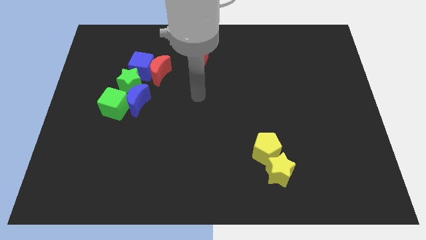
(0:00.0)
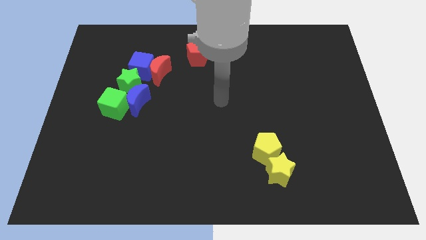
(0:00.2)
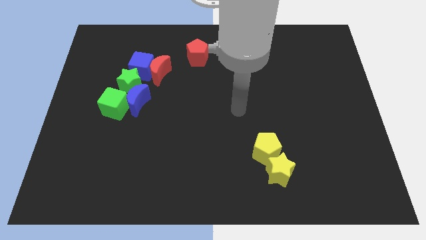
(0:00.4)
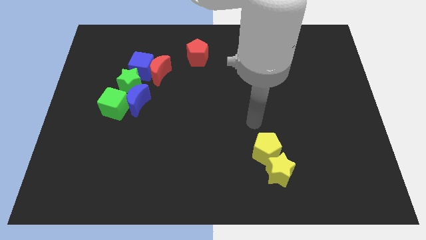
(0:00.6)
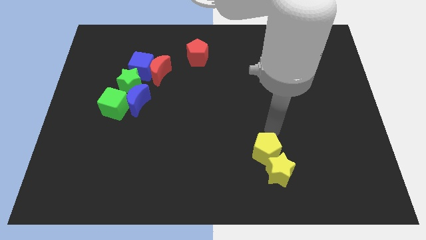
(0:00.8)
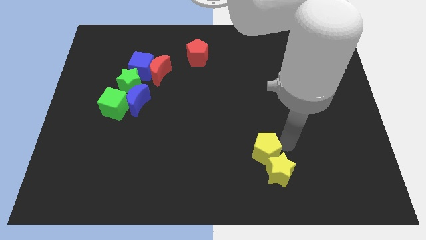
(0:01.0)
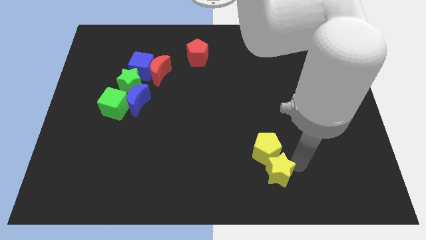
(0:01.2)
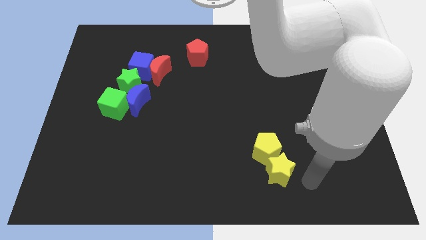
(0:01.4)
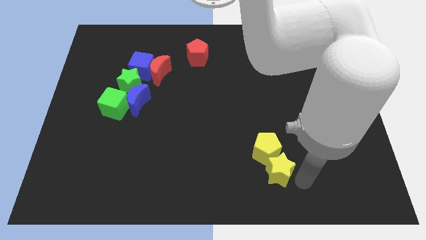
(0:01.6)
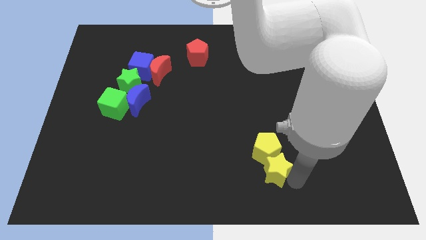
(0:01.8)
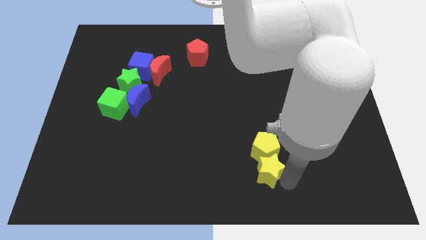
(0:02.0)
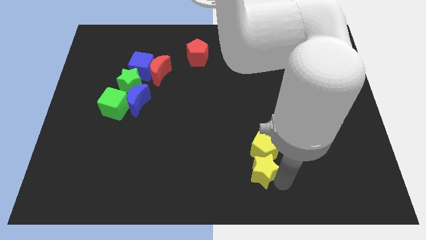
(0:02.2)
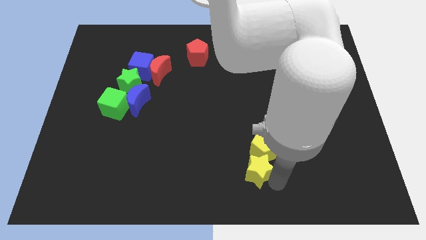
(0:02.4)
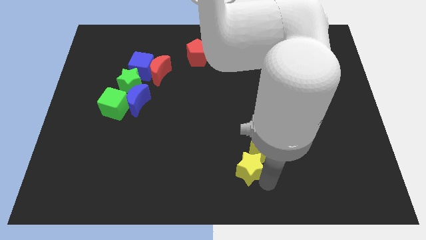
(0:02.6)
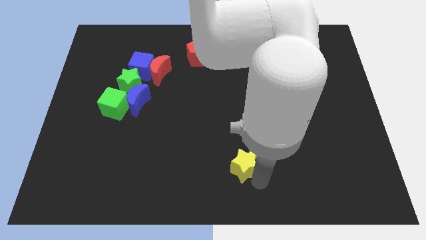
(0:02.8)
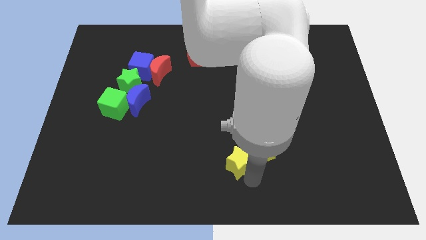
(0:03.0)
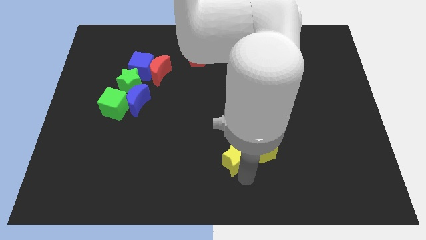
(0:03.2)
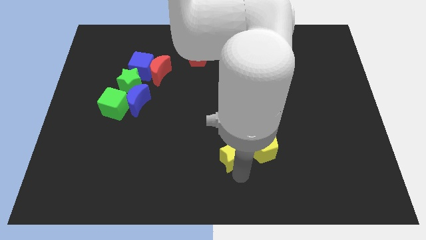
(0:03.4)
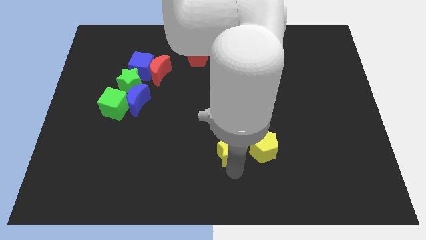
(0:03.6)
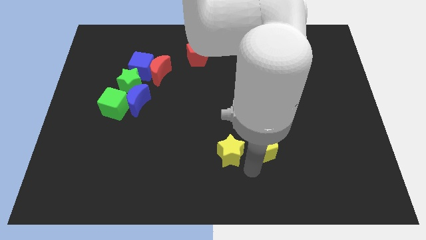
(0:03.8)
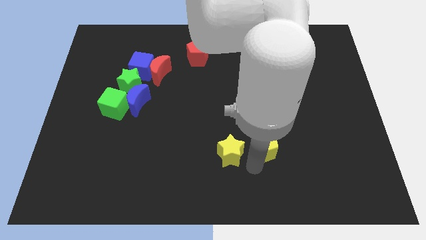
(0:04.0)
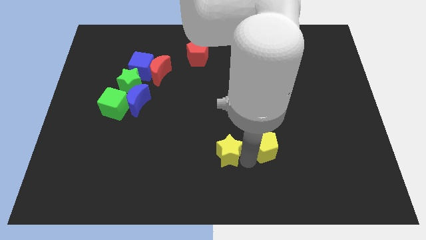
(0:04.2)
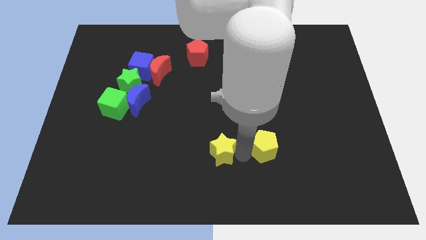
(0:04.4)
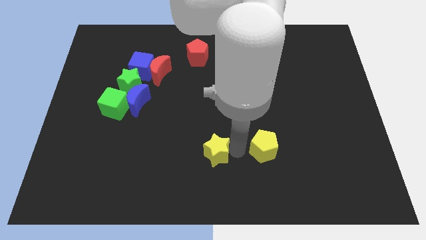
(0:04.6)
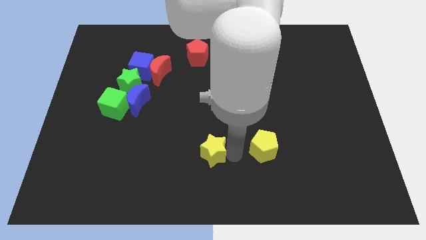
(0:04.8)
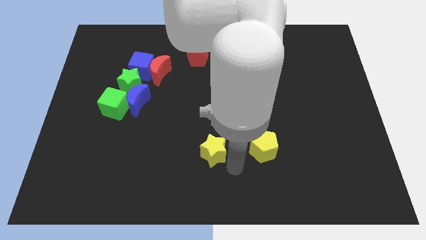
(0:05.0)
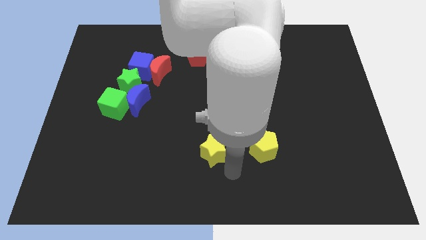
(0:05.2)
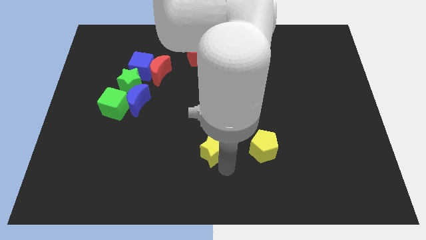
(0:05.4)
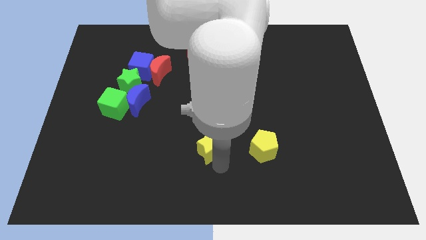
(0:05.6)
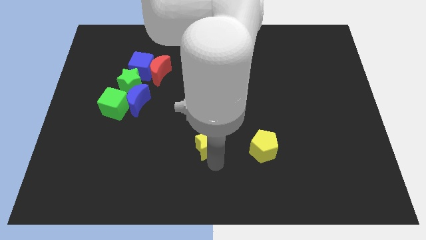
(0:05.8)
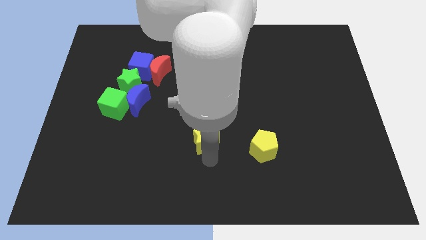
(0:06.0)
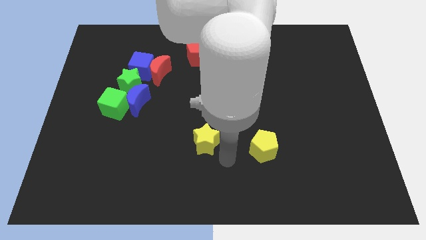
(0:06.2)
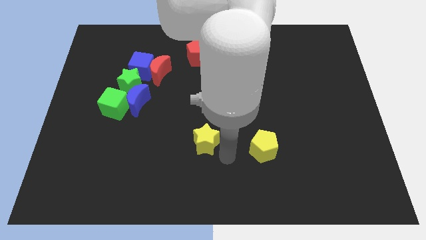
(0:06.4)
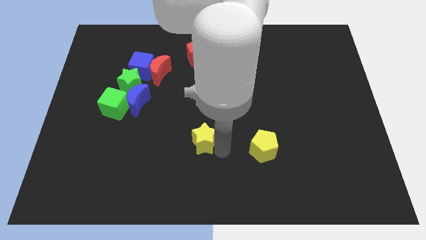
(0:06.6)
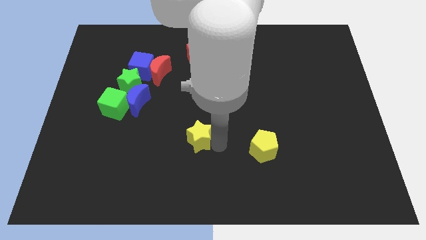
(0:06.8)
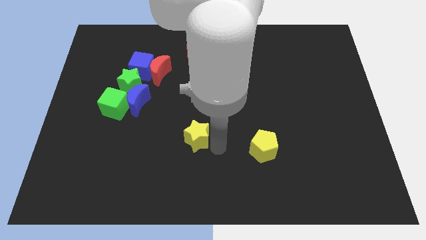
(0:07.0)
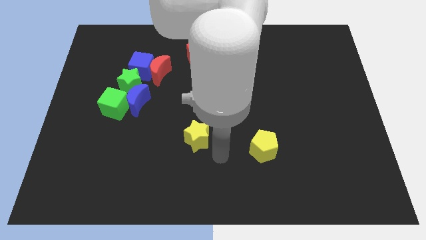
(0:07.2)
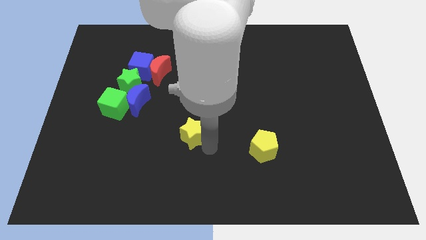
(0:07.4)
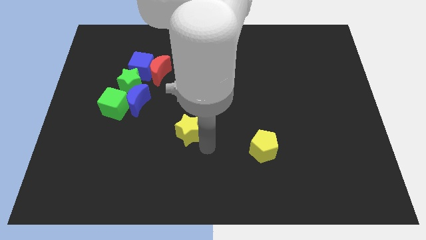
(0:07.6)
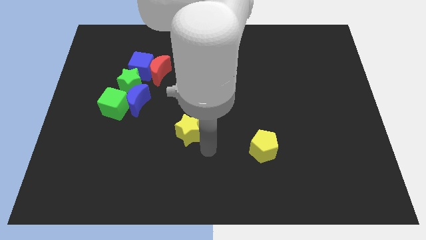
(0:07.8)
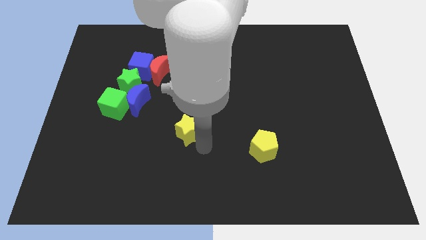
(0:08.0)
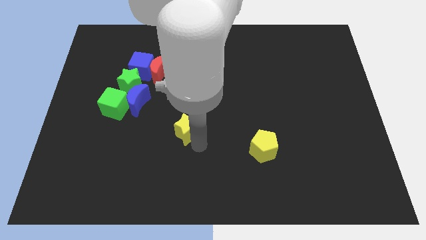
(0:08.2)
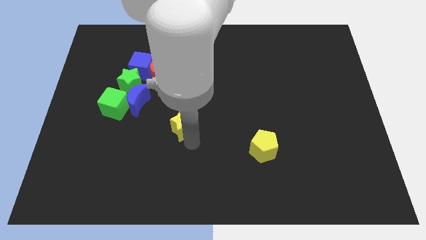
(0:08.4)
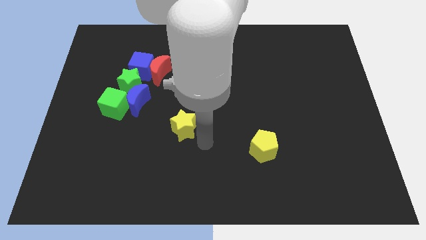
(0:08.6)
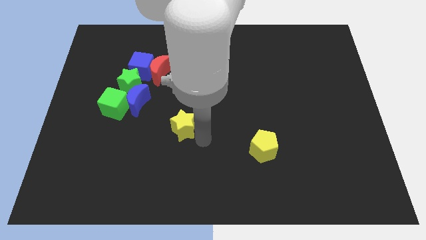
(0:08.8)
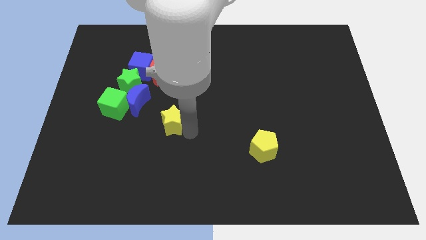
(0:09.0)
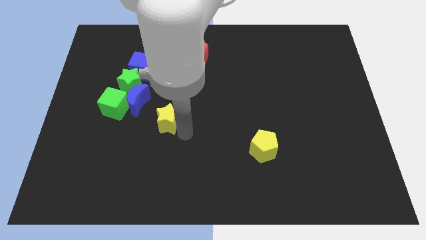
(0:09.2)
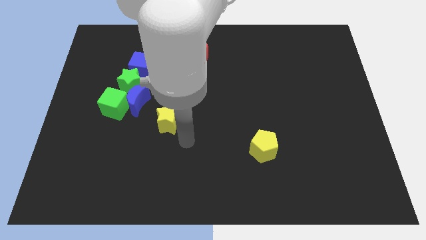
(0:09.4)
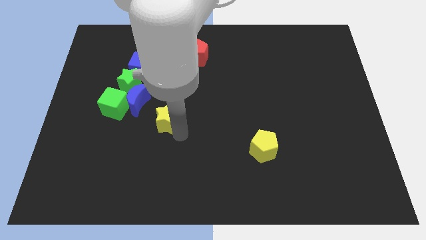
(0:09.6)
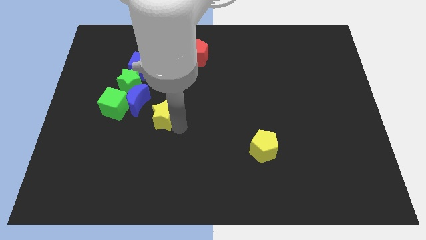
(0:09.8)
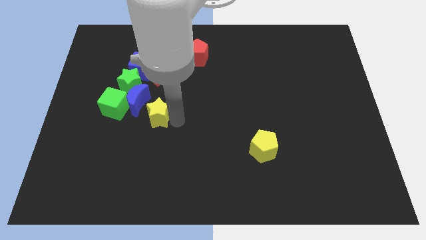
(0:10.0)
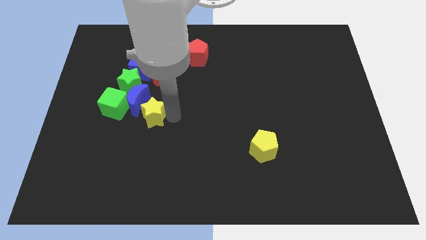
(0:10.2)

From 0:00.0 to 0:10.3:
move the yellow star towards the blue moon

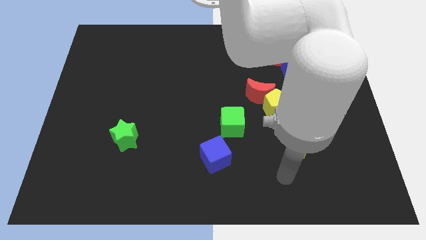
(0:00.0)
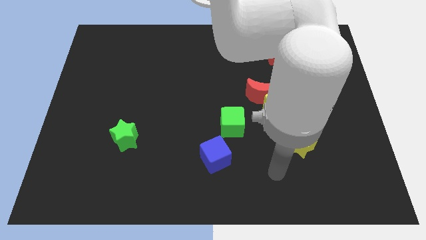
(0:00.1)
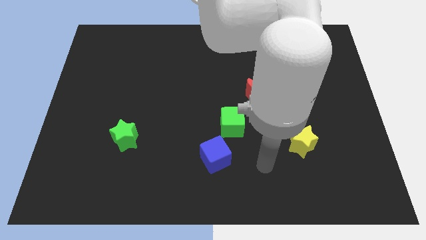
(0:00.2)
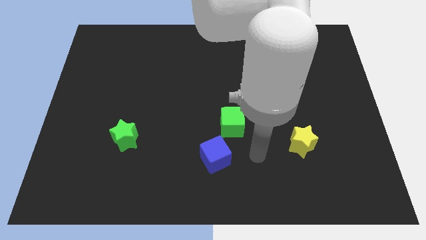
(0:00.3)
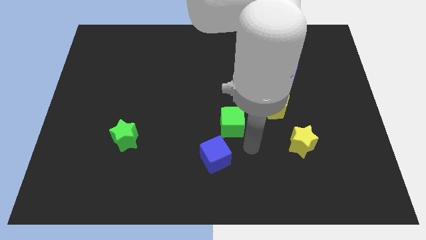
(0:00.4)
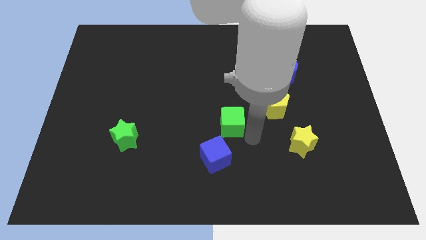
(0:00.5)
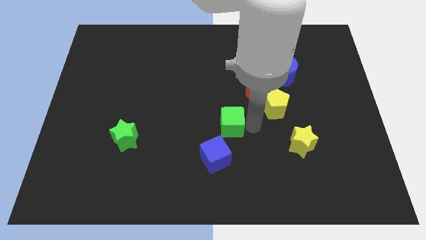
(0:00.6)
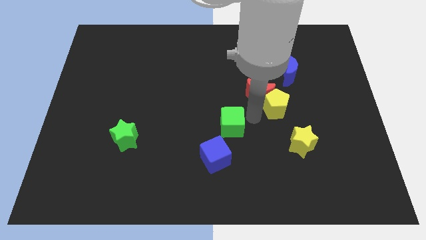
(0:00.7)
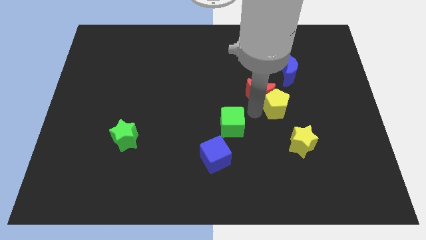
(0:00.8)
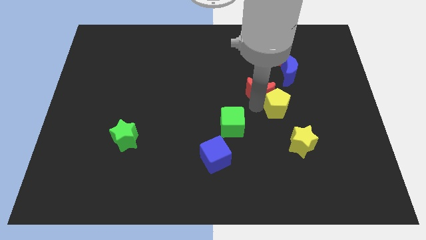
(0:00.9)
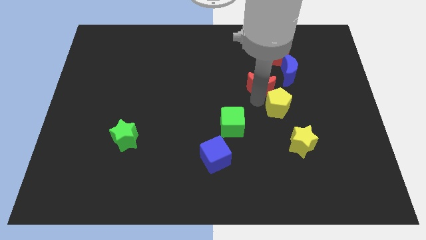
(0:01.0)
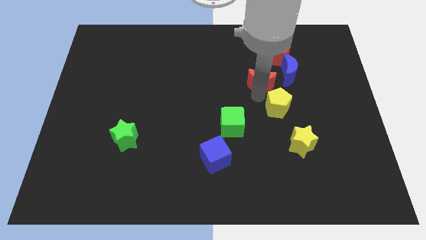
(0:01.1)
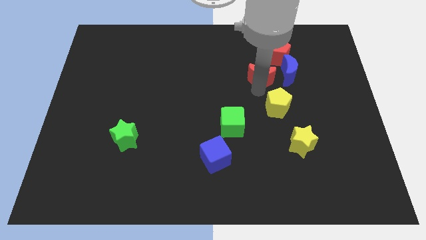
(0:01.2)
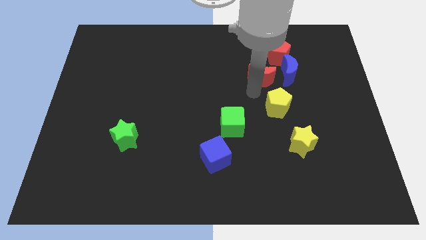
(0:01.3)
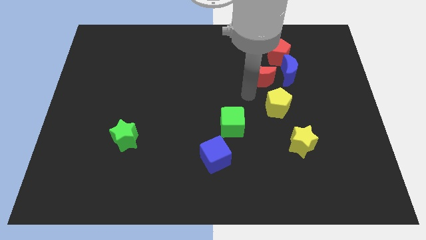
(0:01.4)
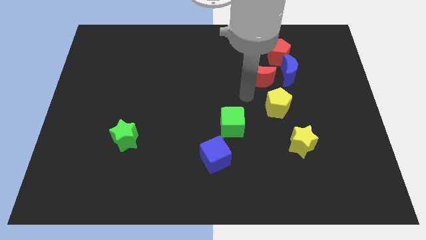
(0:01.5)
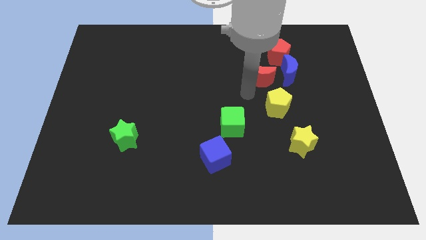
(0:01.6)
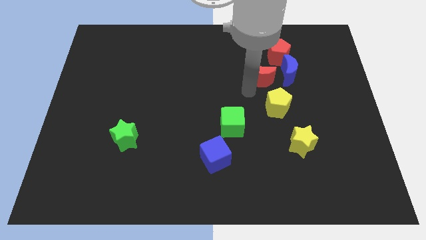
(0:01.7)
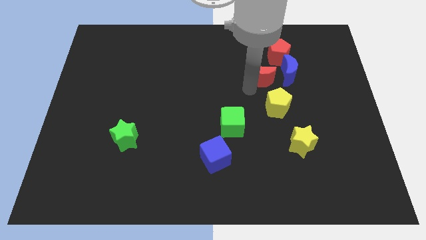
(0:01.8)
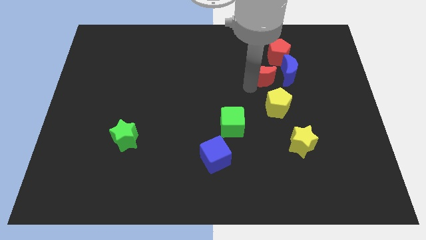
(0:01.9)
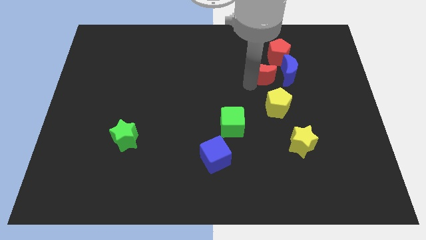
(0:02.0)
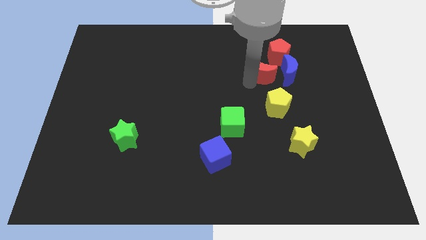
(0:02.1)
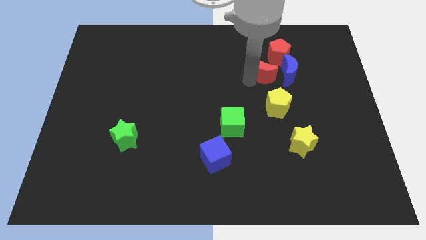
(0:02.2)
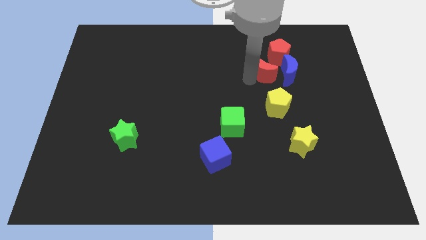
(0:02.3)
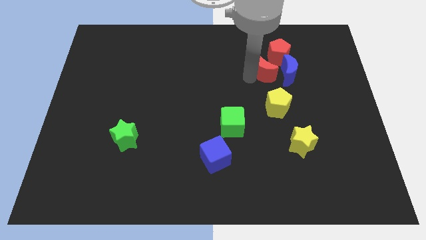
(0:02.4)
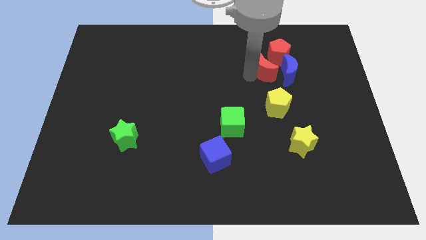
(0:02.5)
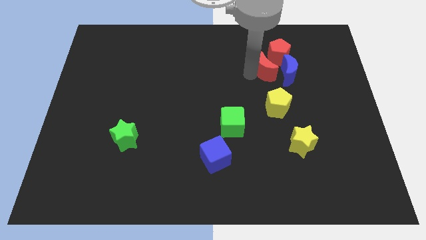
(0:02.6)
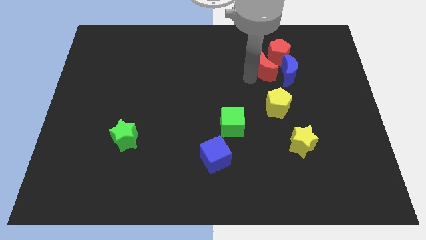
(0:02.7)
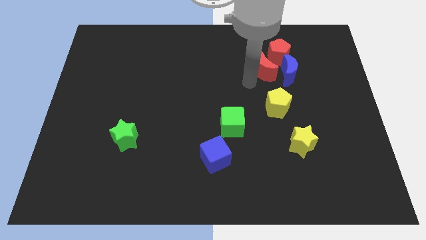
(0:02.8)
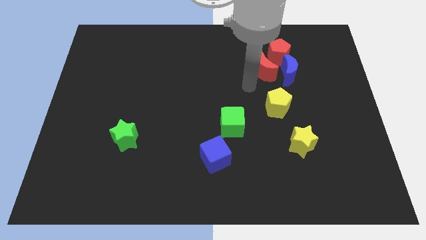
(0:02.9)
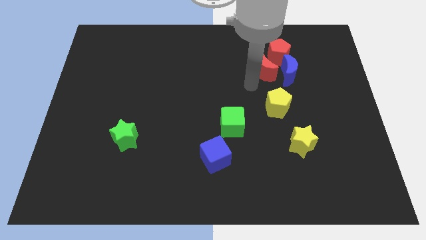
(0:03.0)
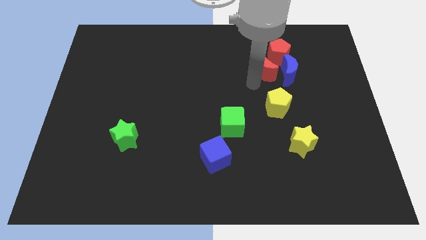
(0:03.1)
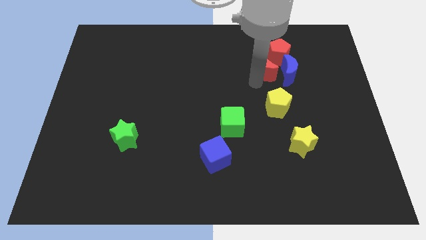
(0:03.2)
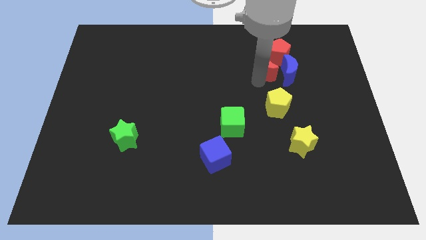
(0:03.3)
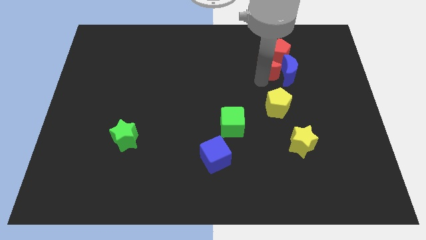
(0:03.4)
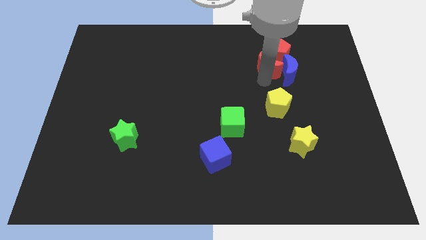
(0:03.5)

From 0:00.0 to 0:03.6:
slide the red moon towards the red pentagon
